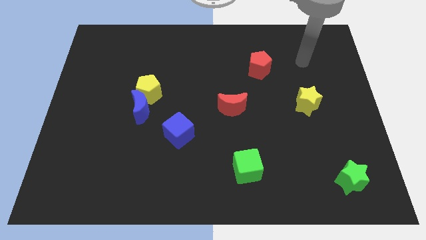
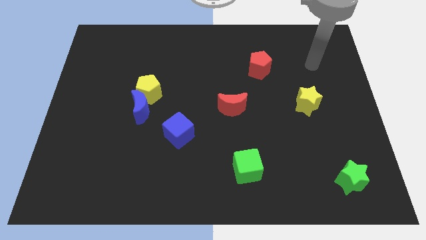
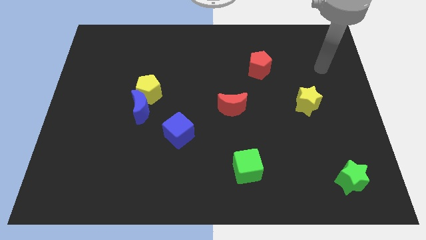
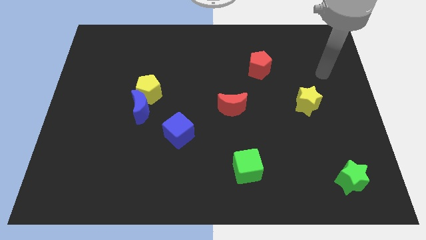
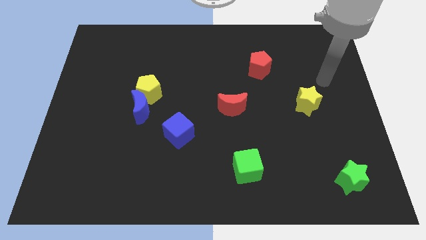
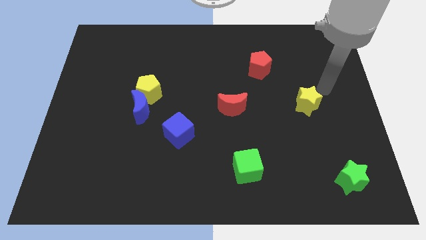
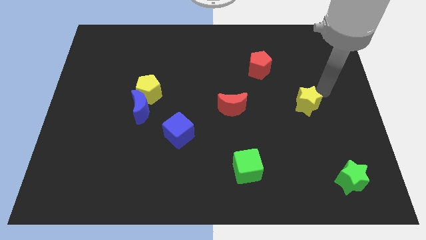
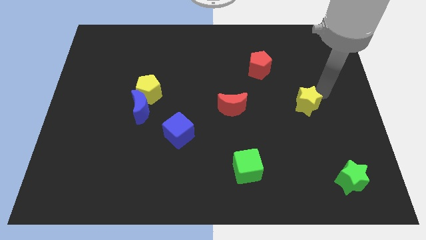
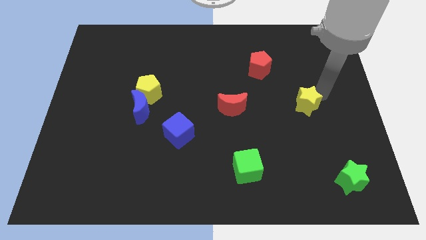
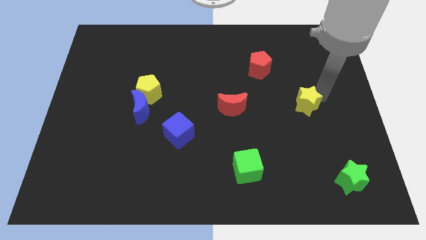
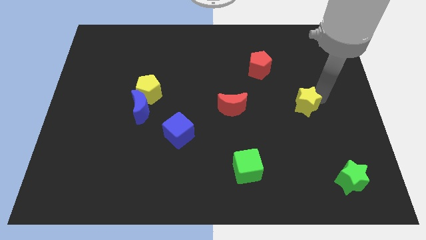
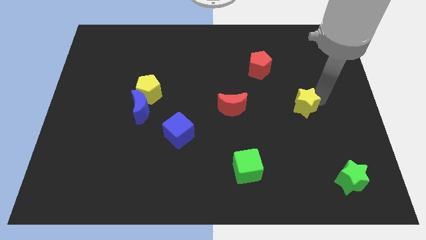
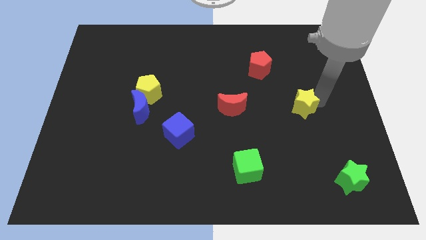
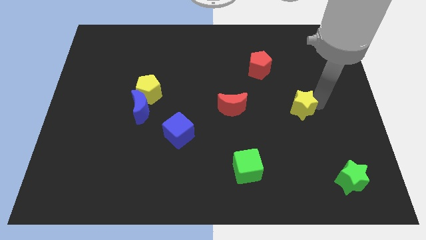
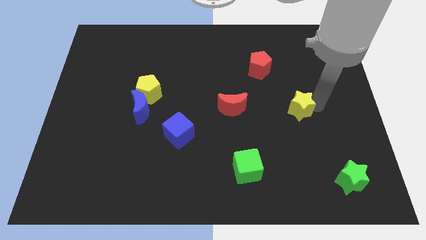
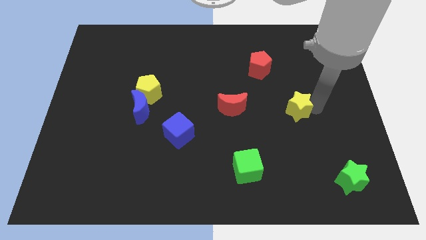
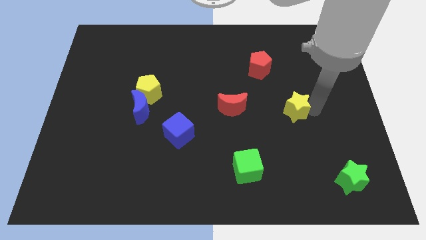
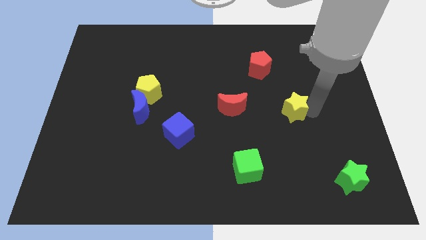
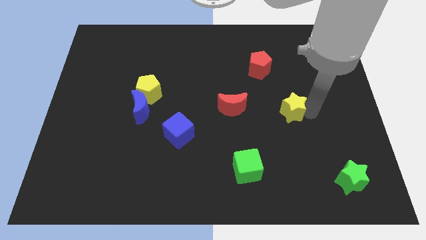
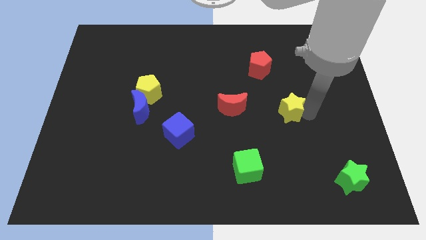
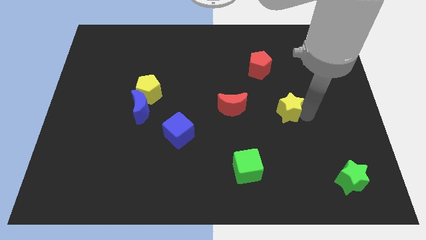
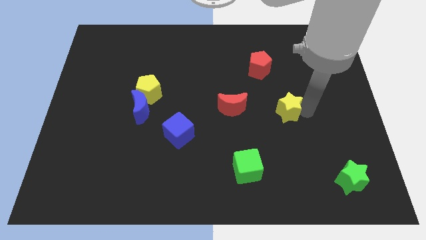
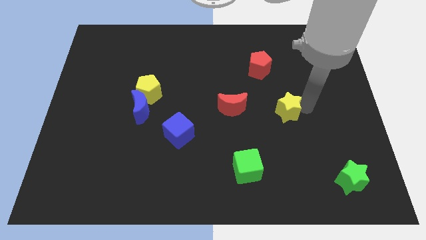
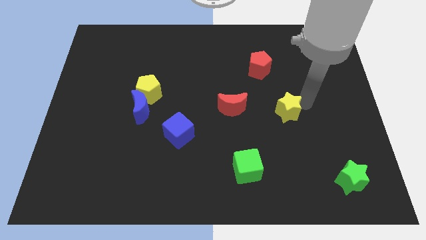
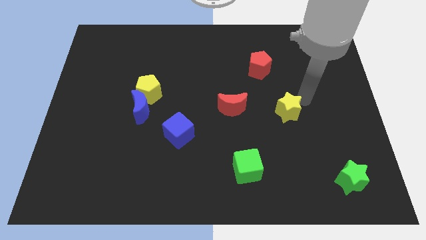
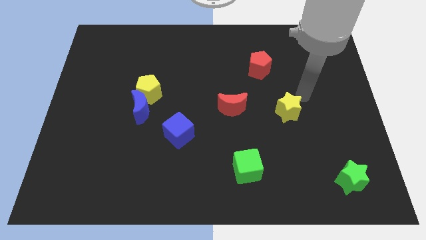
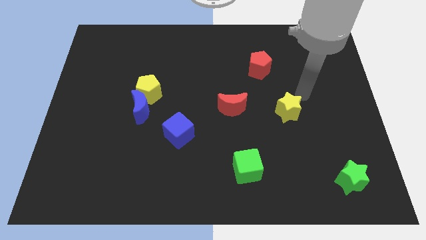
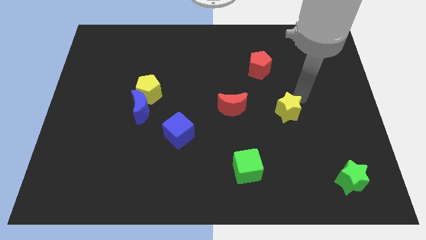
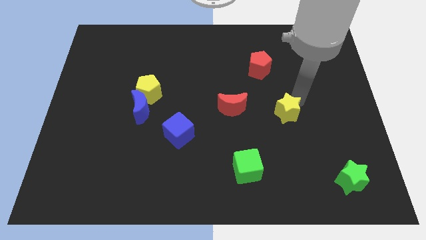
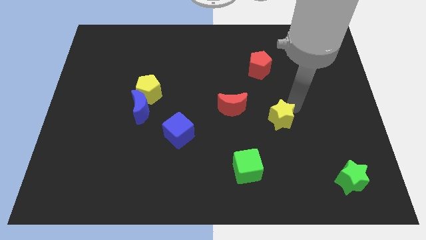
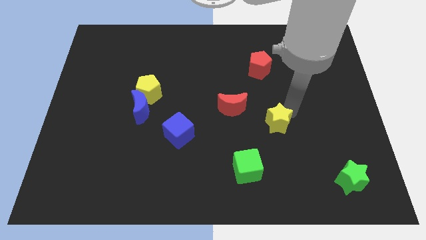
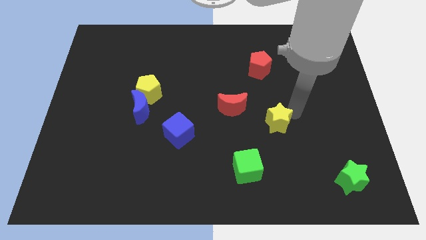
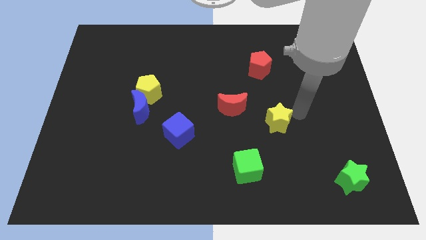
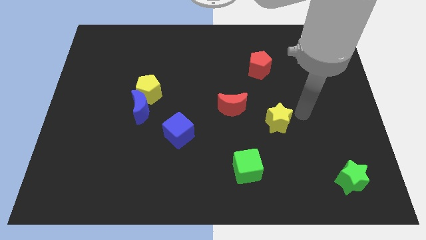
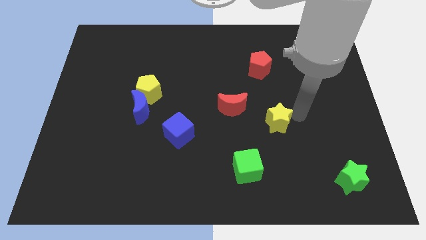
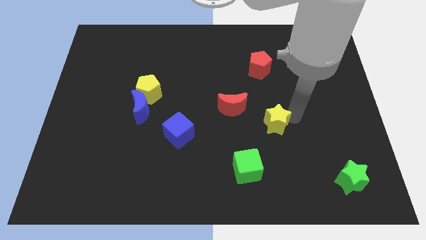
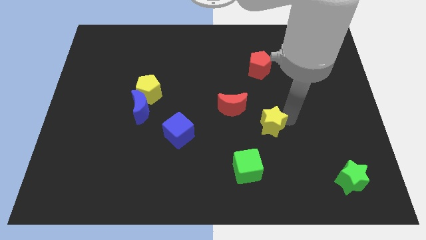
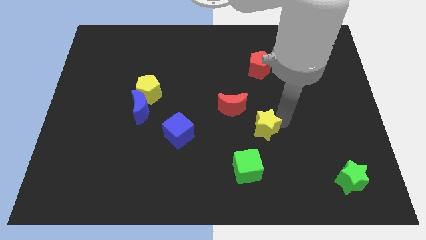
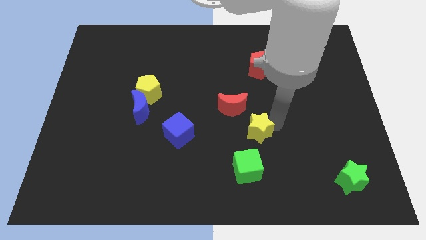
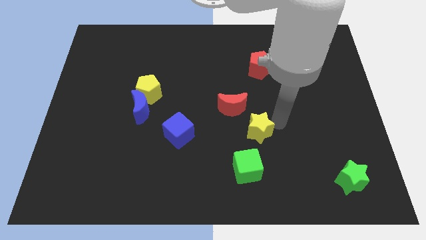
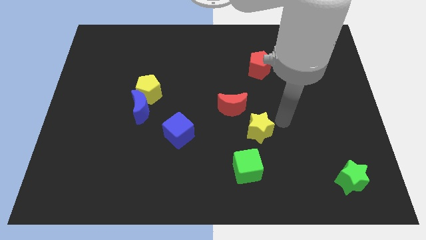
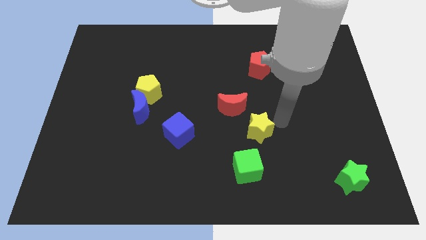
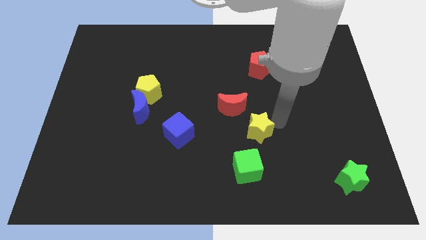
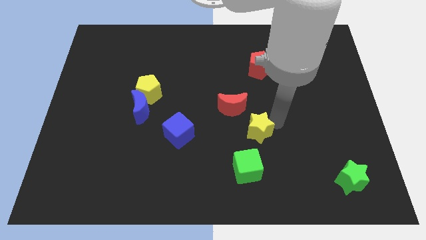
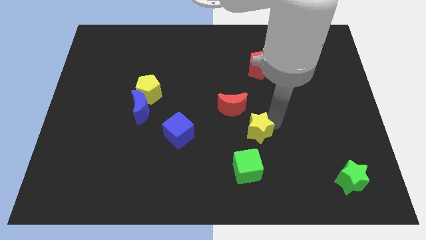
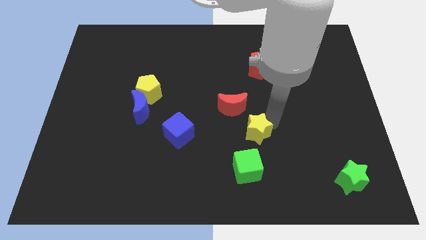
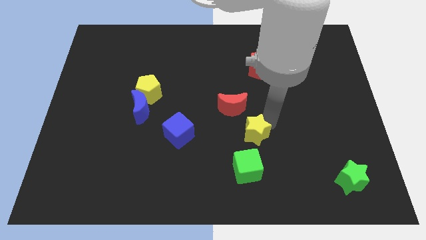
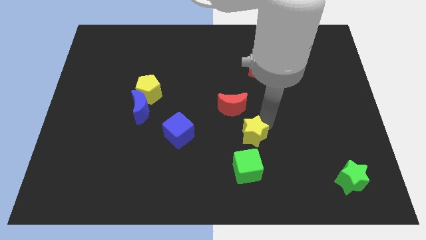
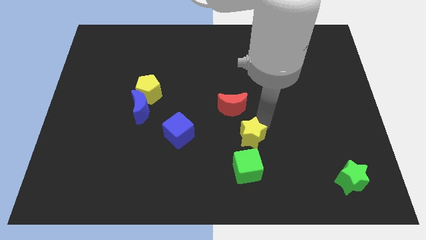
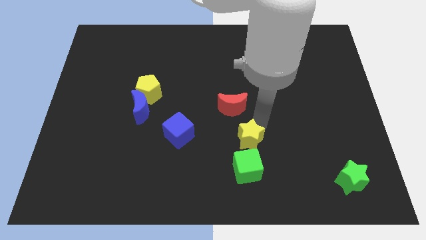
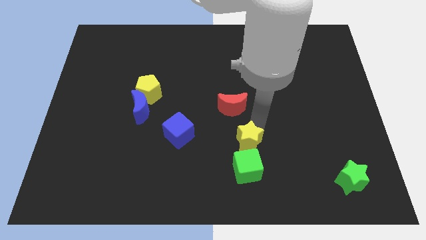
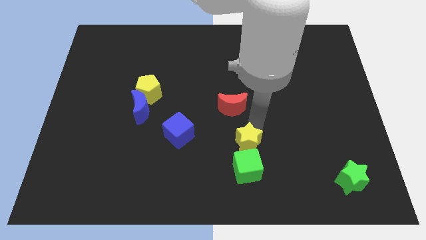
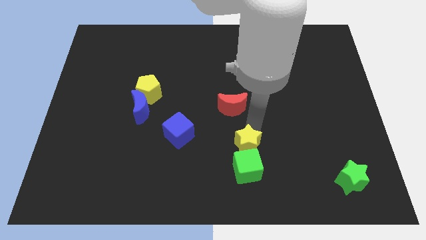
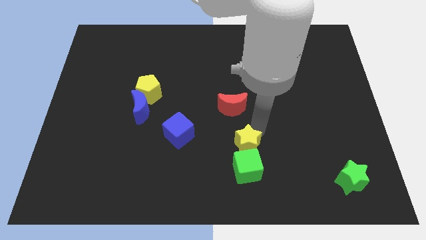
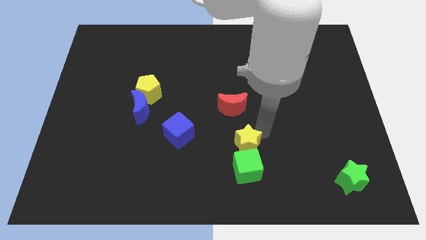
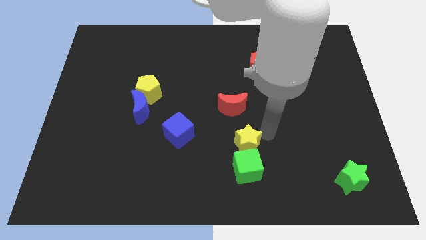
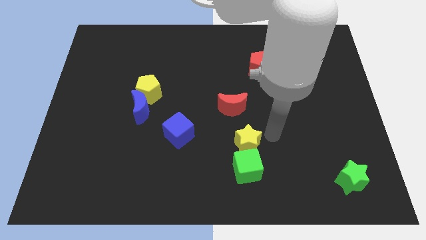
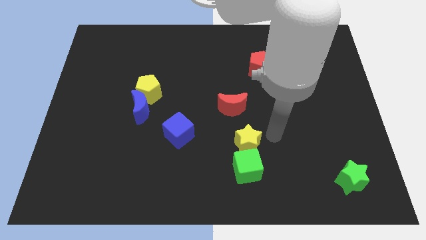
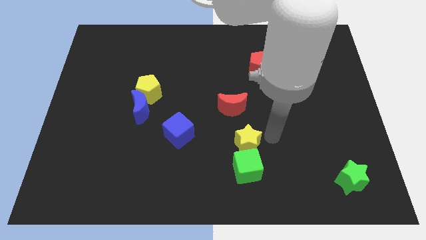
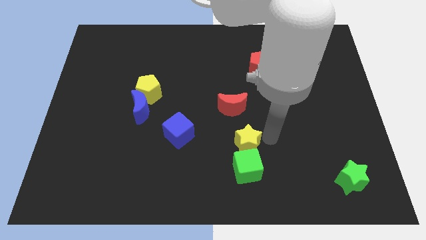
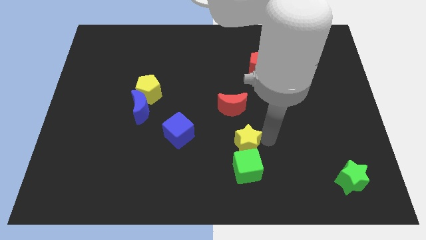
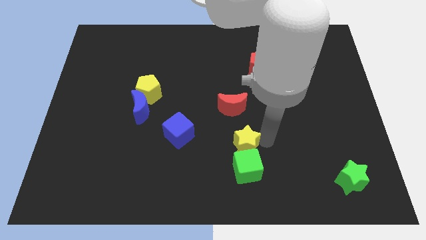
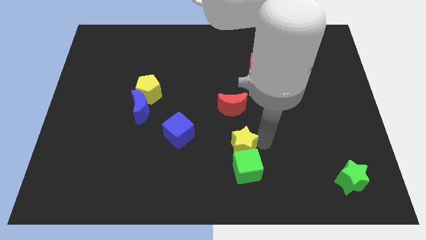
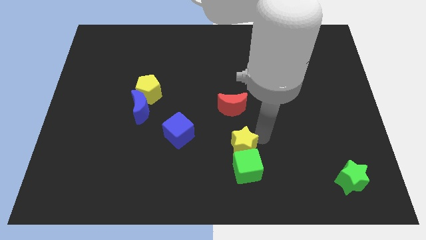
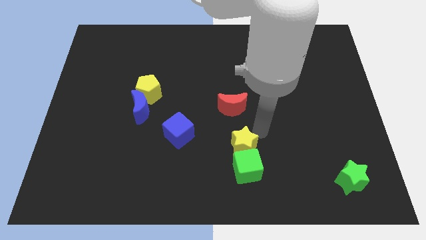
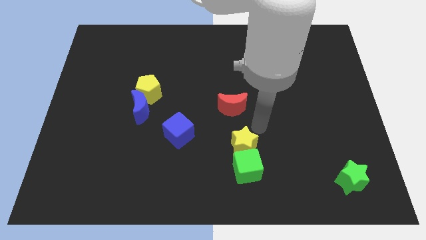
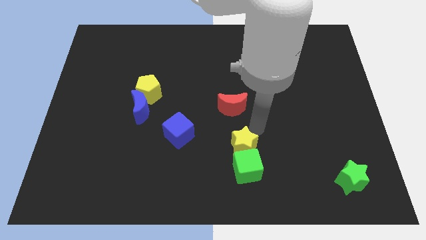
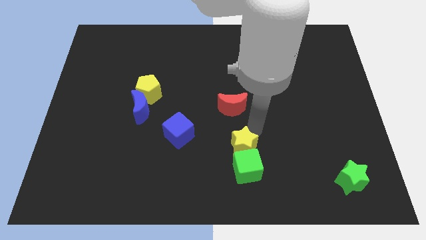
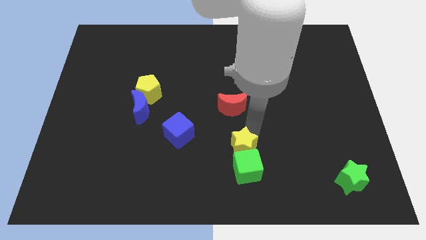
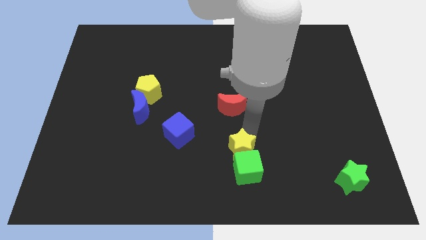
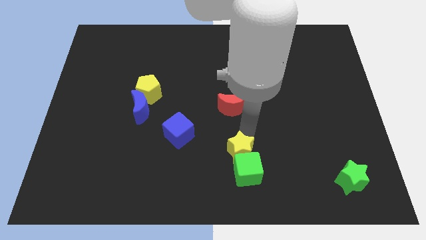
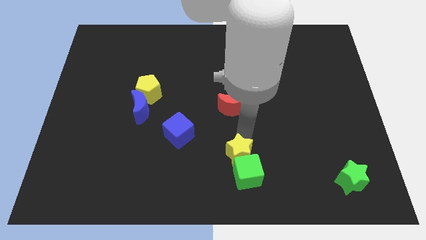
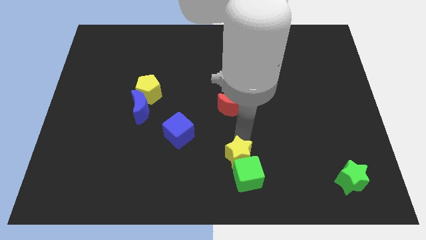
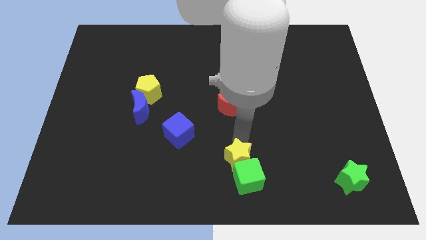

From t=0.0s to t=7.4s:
move the yellow star to the bottom

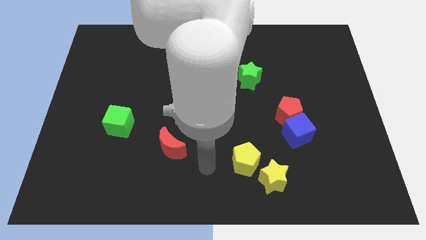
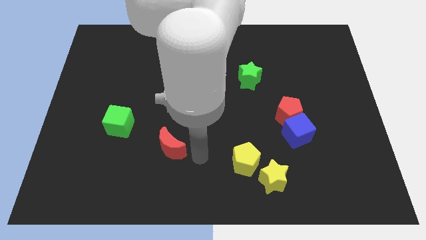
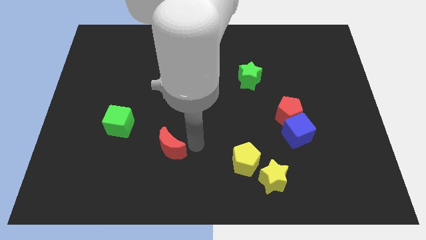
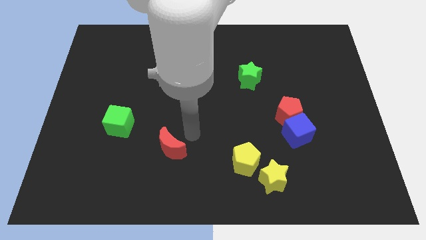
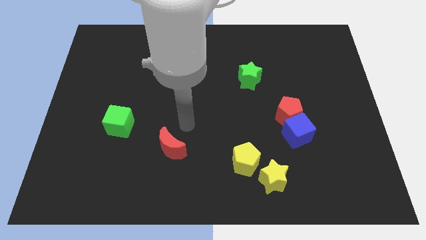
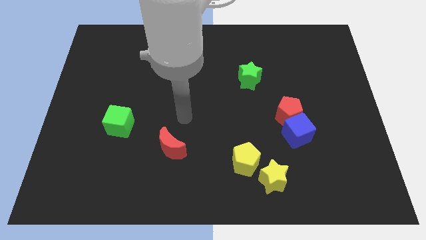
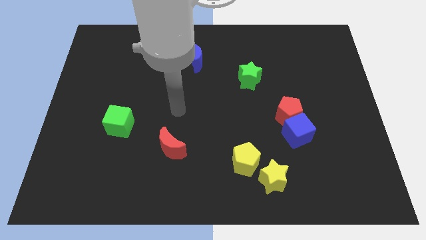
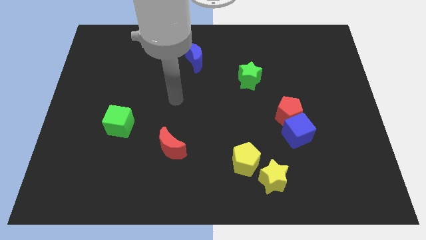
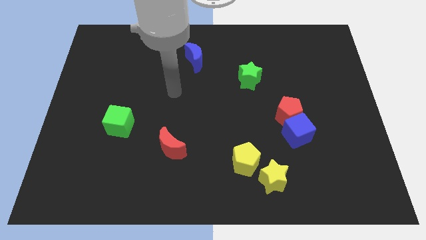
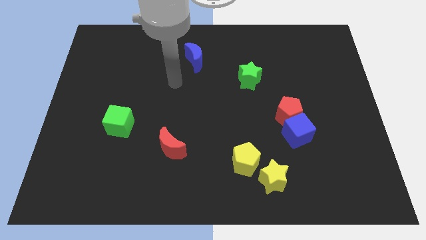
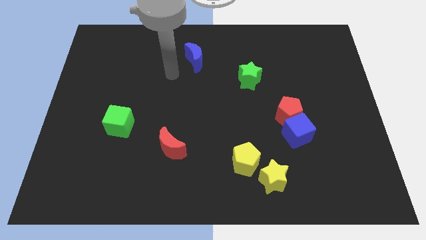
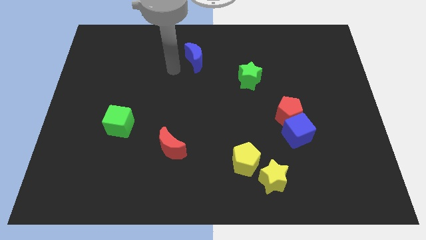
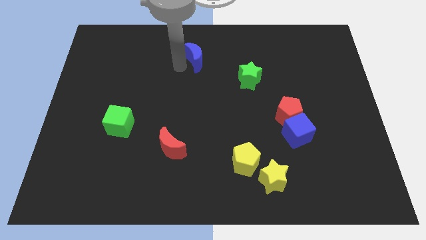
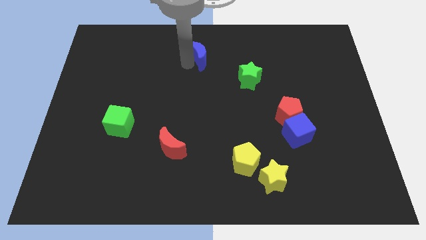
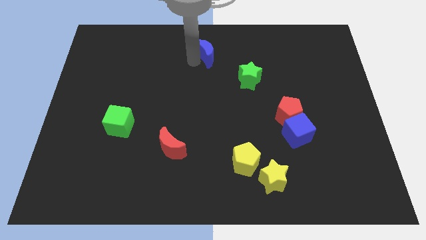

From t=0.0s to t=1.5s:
put the blue moon to the towards your base
